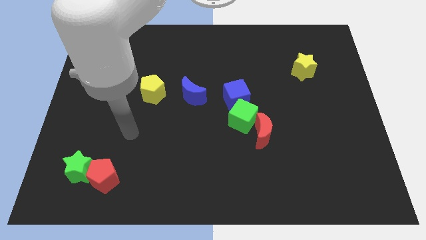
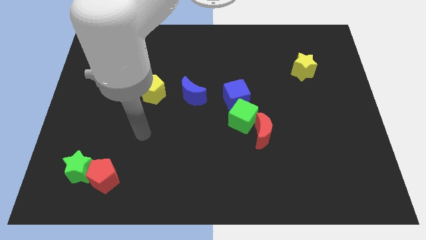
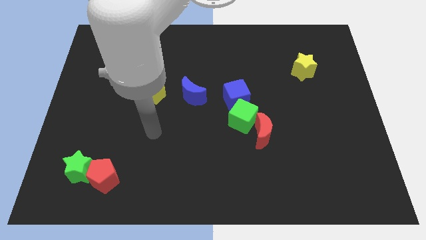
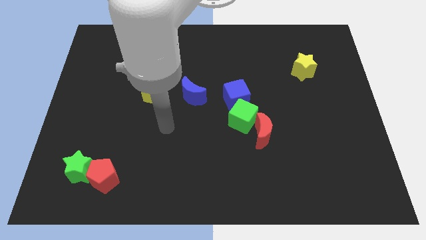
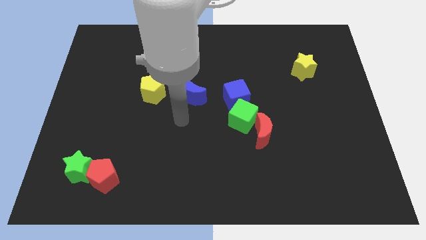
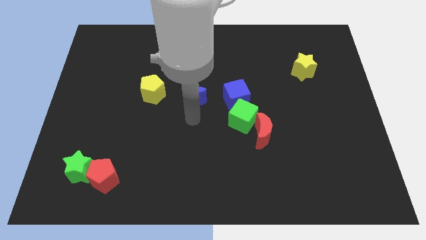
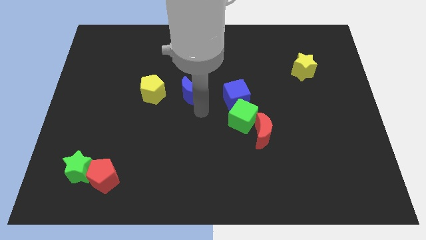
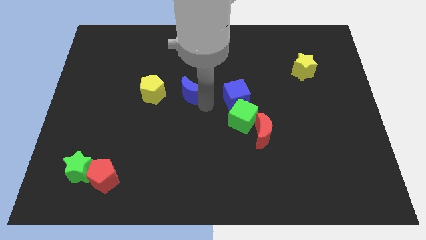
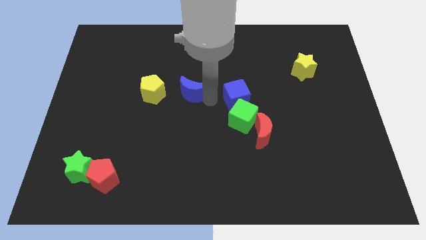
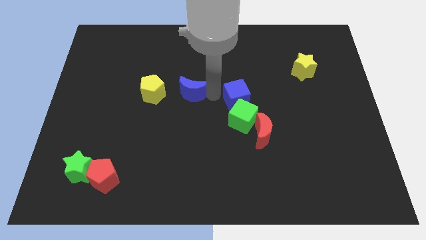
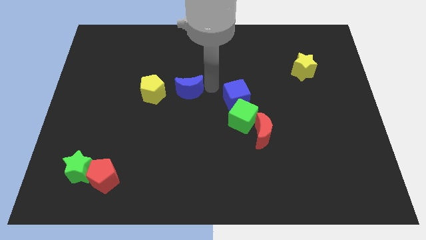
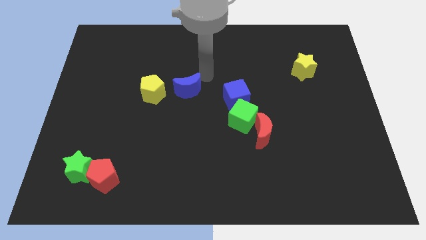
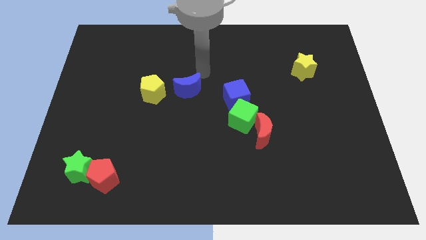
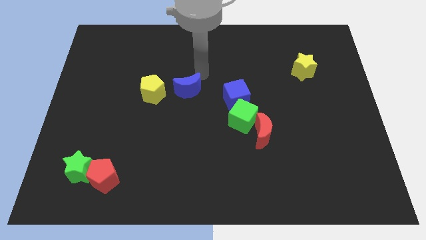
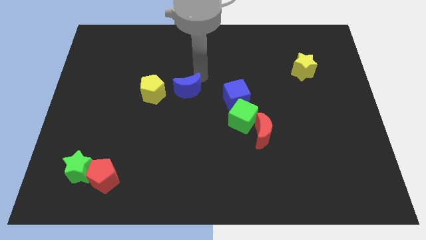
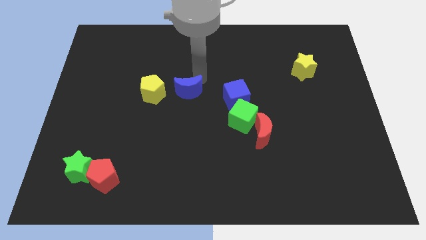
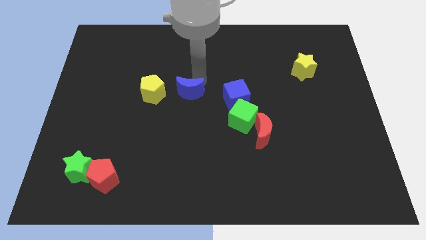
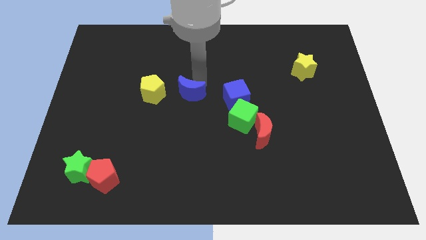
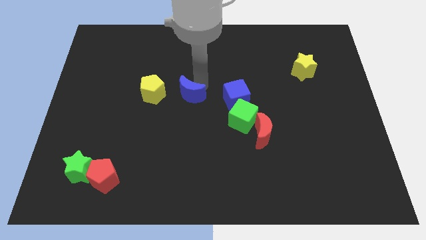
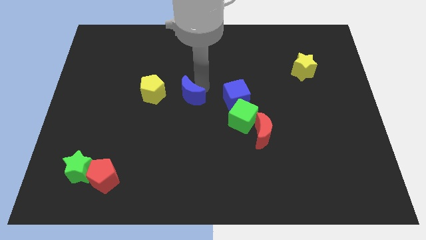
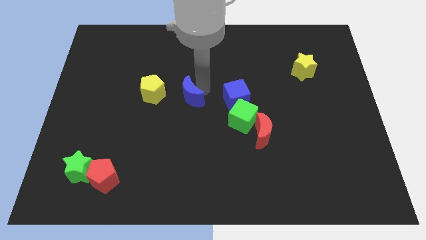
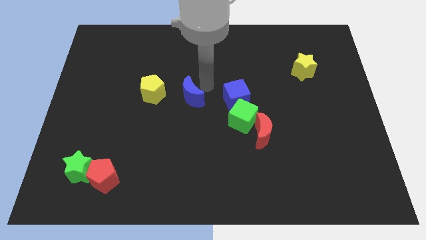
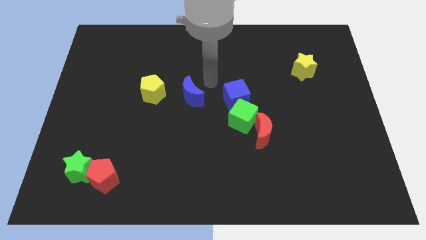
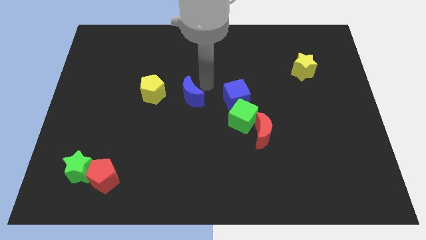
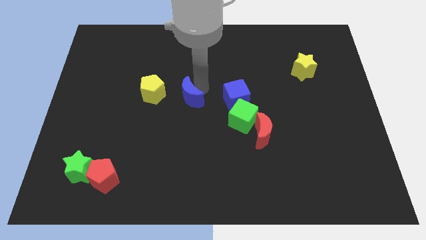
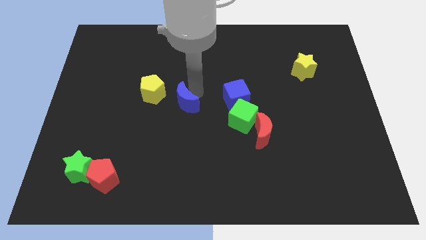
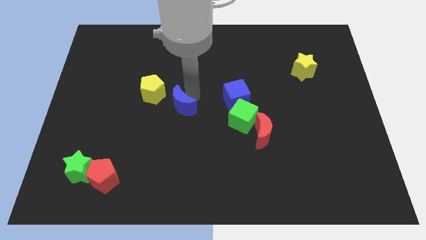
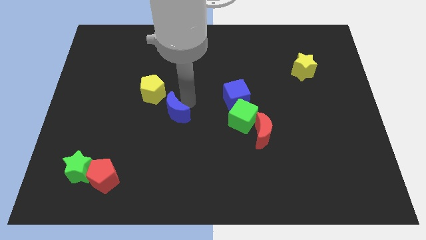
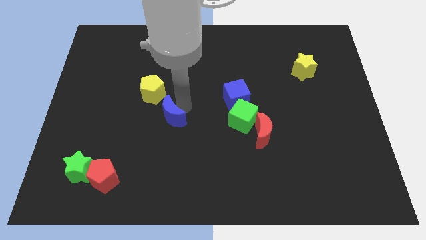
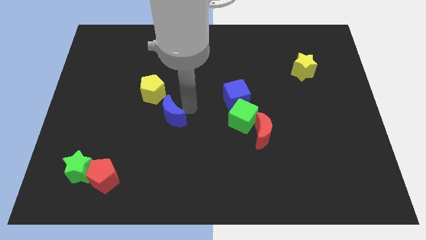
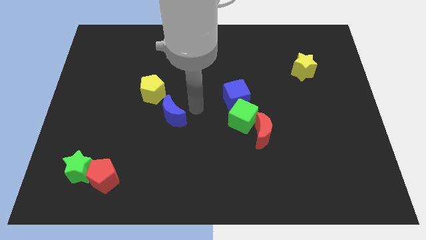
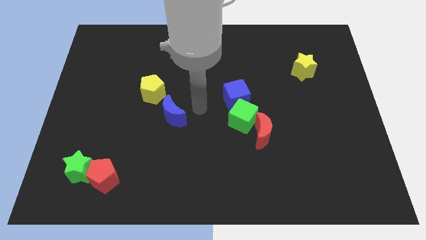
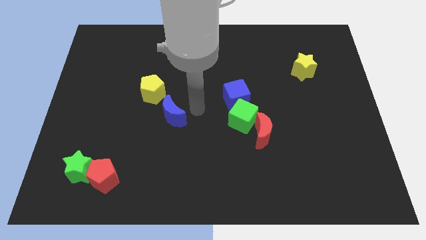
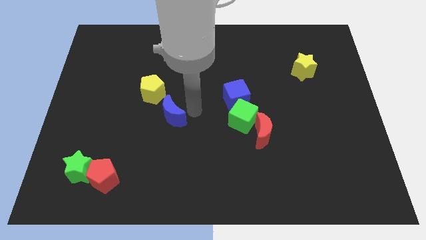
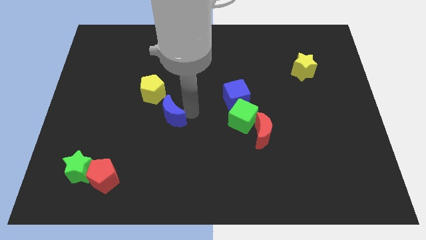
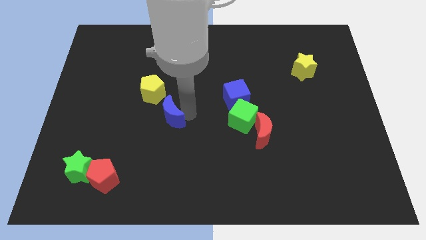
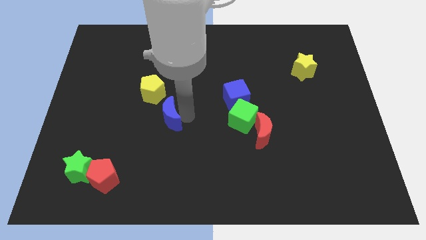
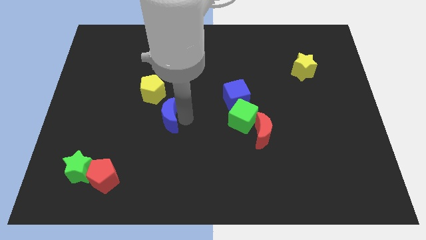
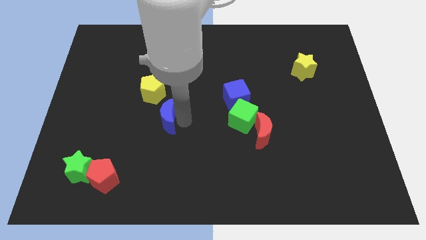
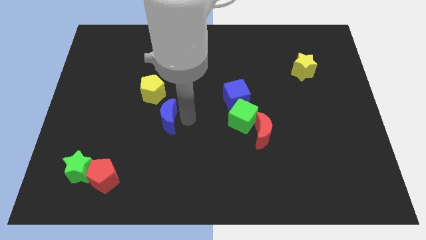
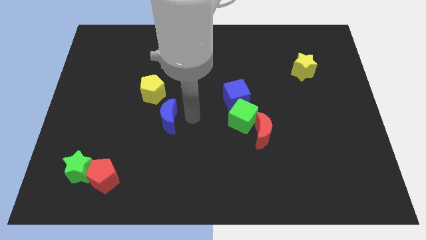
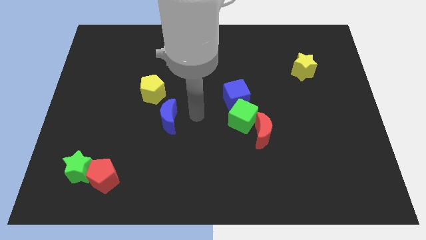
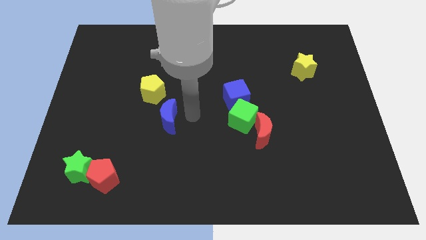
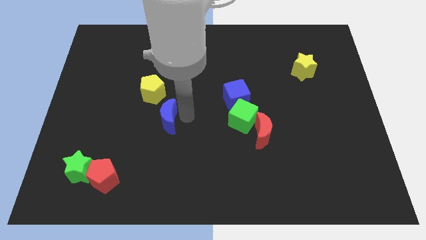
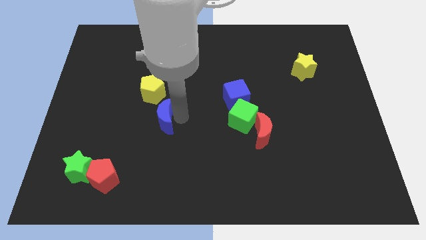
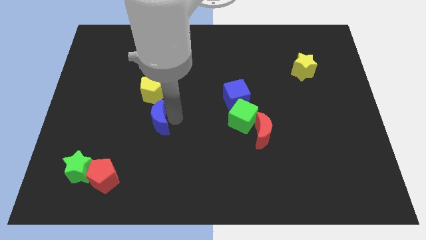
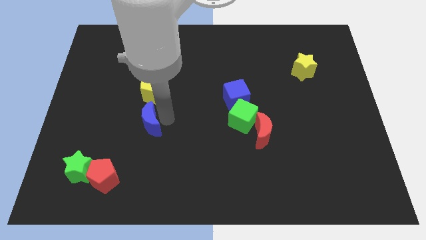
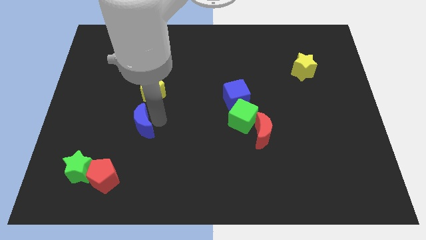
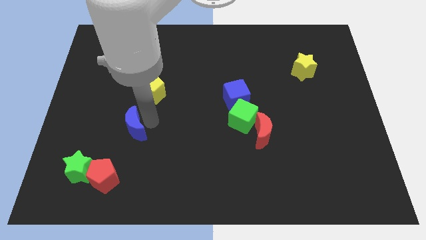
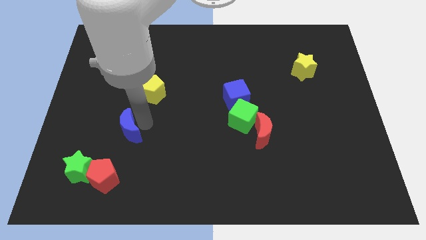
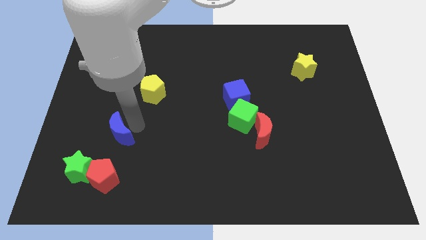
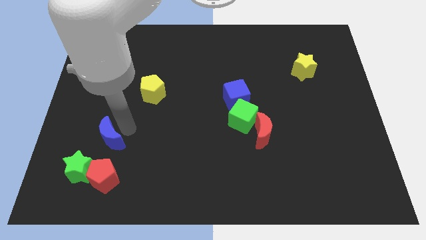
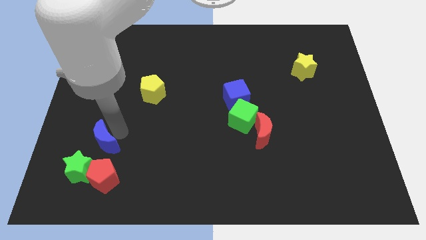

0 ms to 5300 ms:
move the blue moon to the top left side of the red pentagon

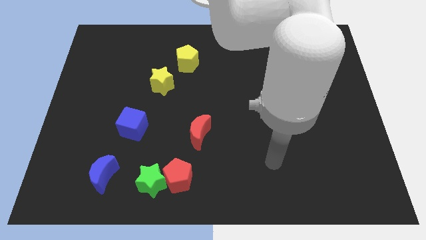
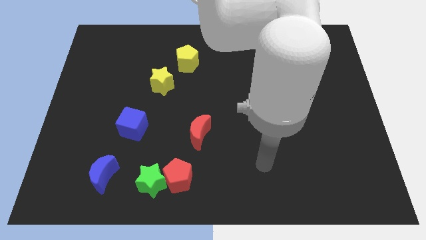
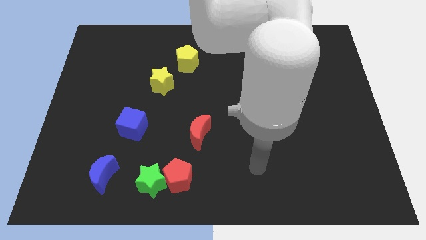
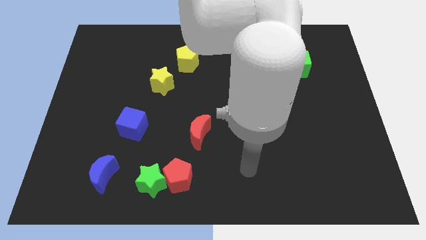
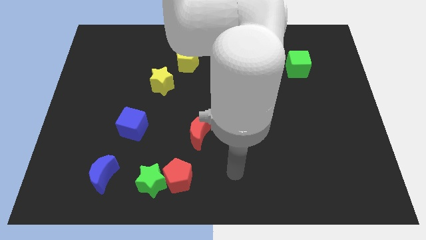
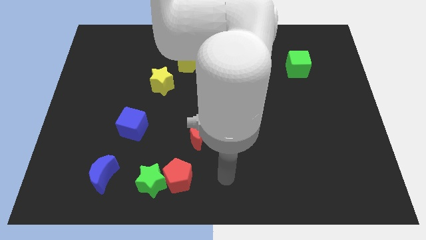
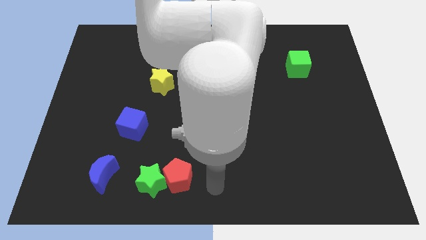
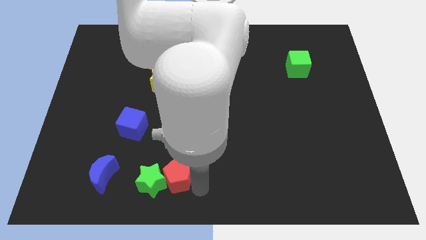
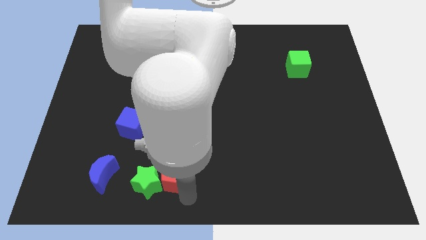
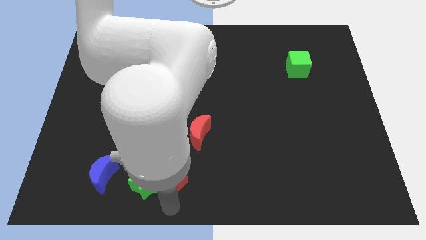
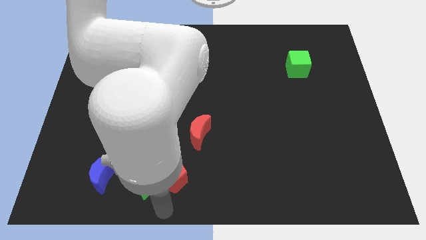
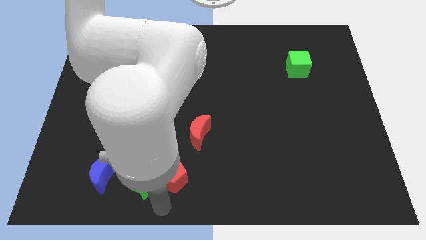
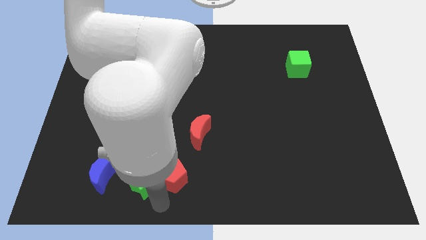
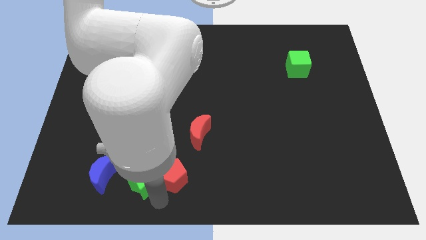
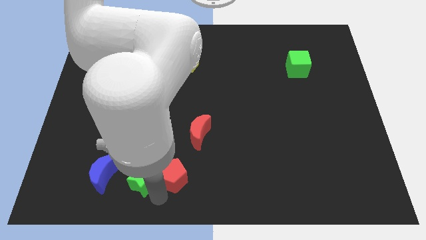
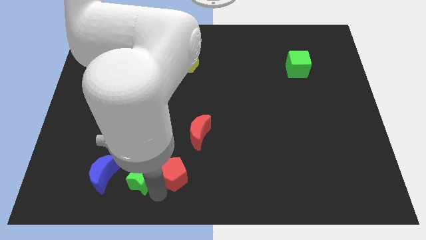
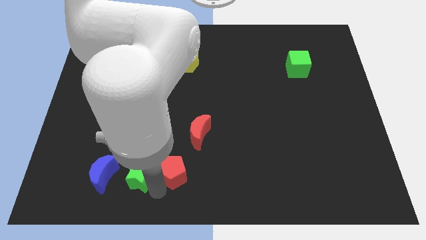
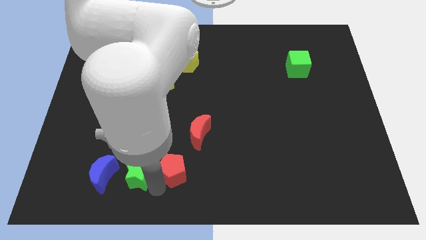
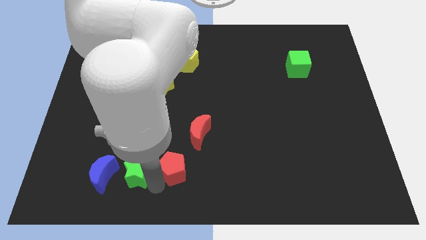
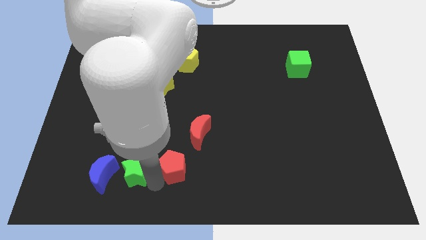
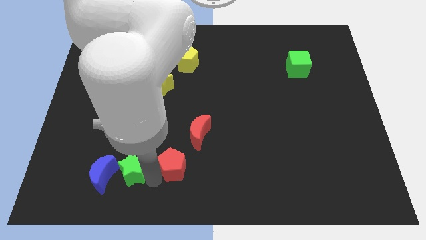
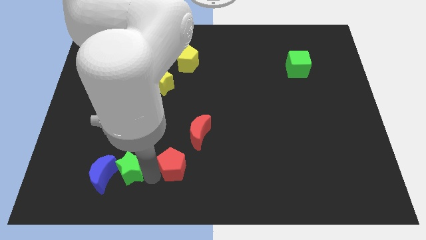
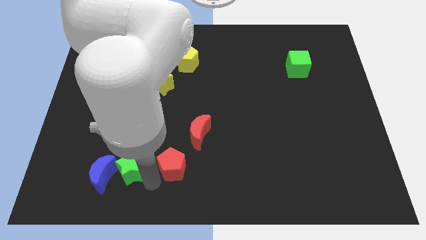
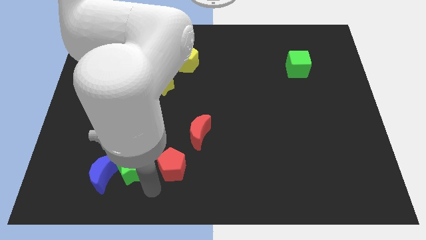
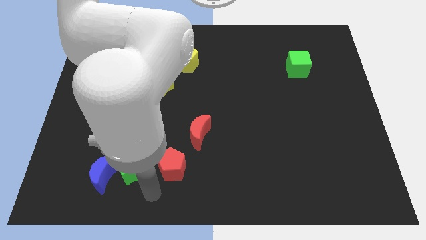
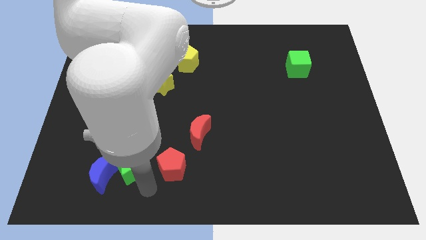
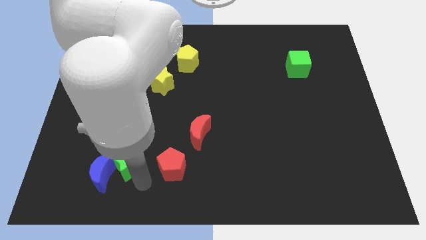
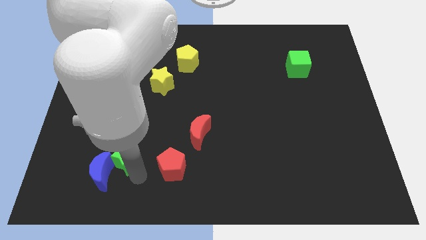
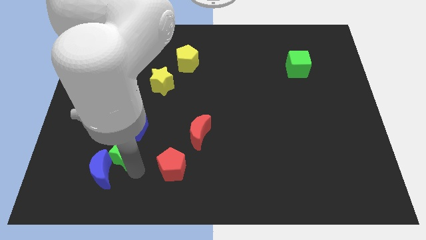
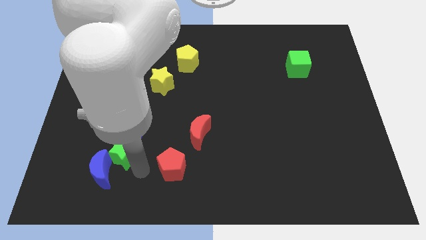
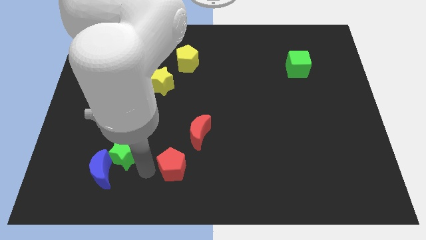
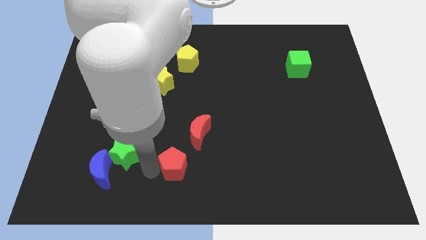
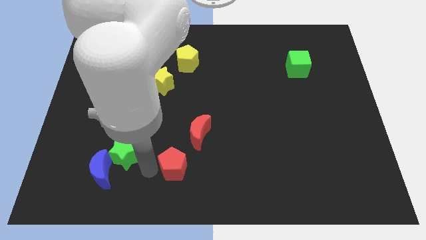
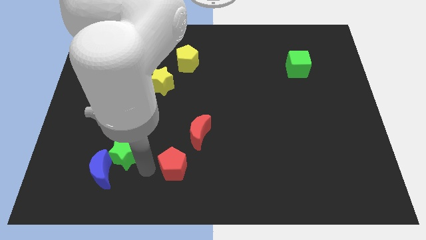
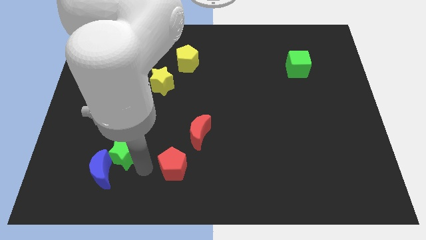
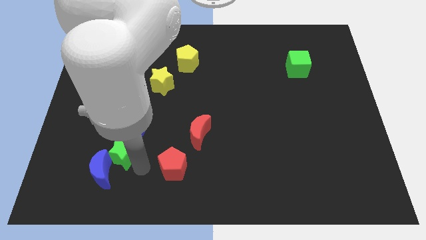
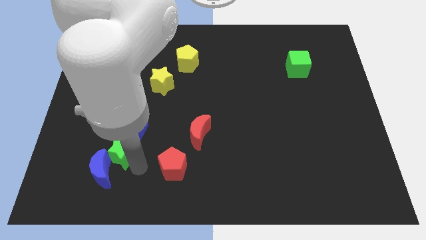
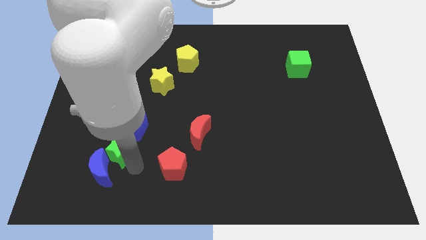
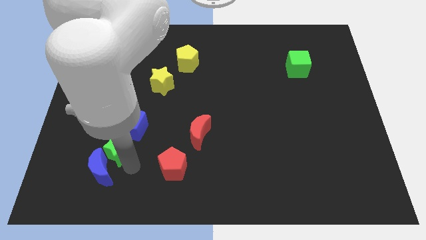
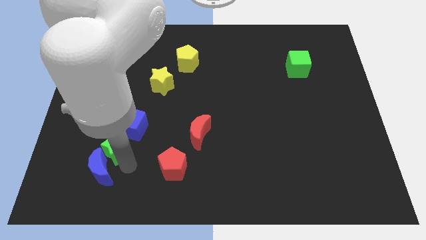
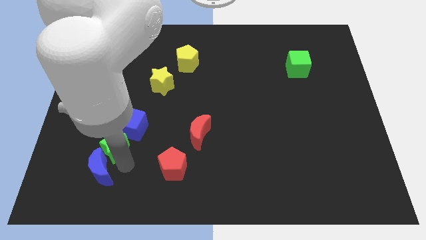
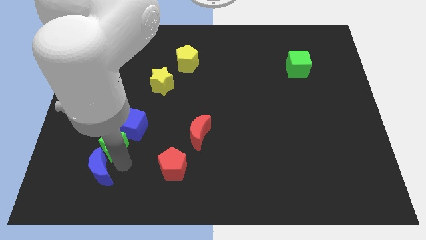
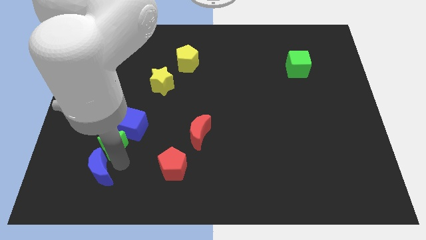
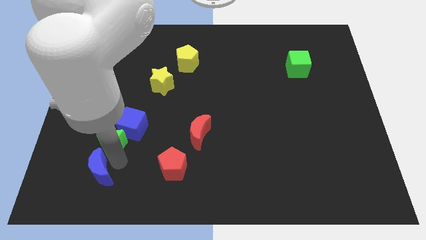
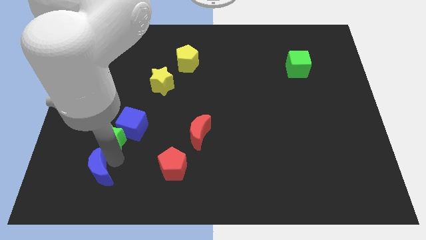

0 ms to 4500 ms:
put the green star to the left side of the blue cube
